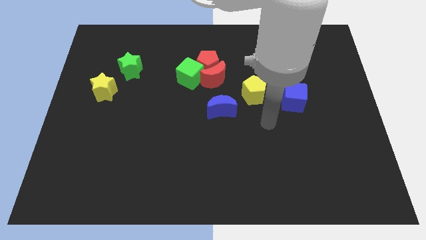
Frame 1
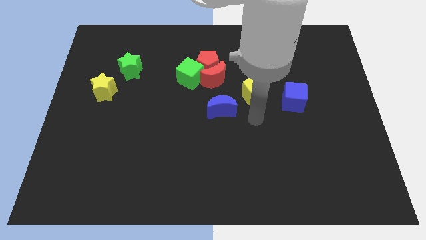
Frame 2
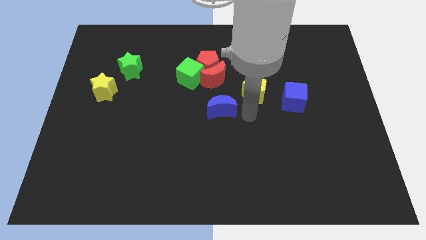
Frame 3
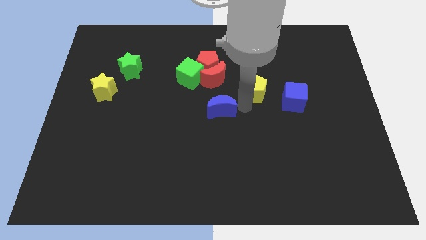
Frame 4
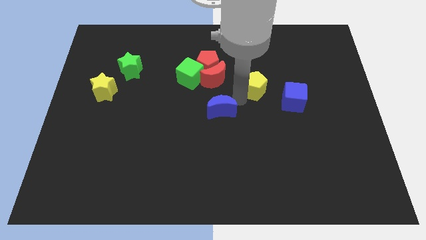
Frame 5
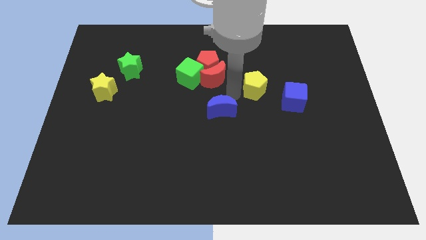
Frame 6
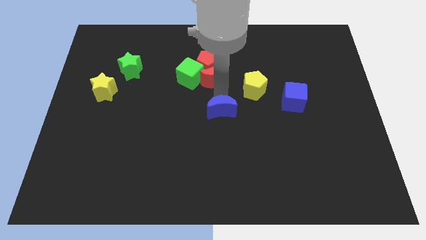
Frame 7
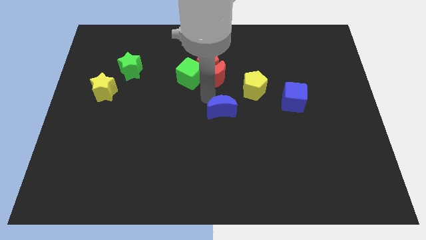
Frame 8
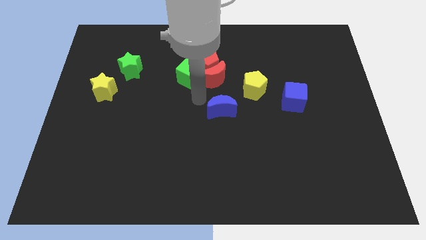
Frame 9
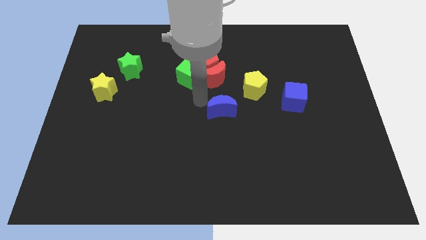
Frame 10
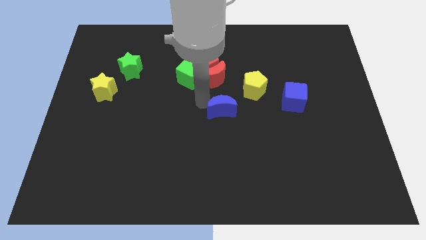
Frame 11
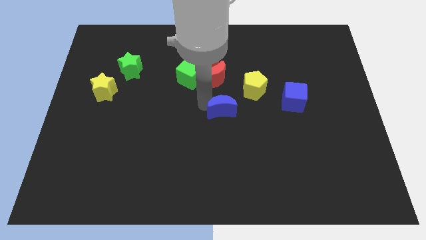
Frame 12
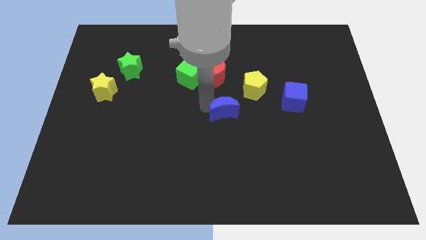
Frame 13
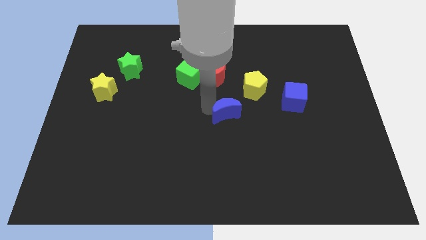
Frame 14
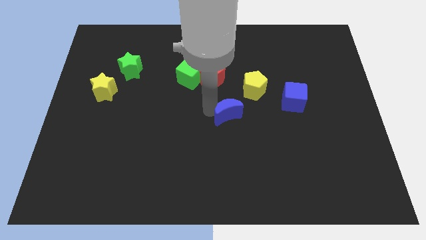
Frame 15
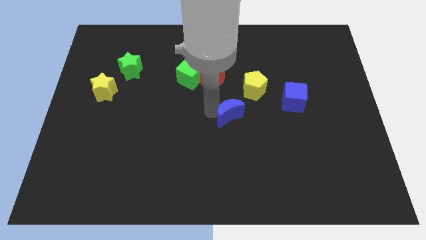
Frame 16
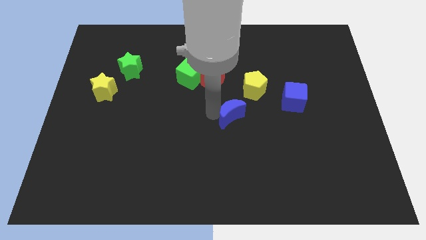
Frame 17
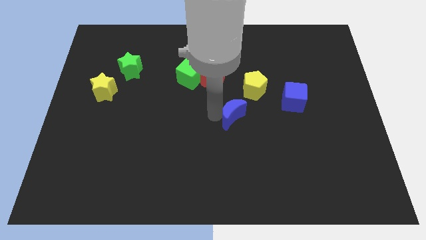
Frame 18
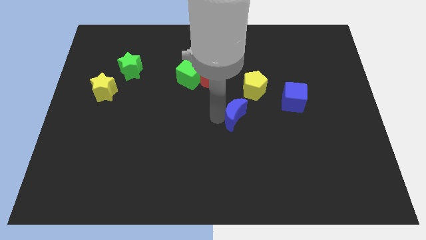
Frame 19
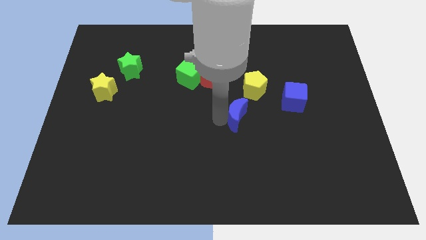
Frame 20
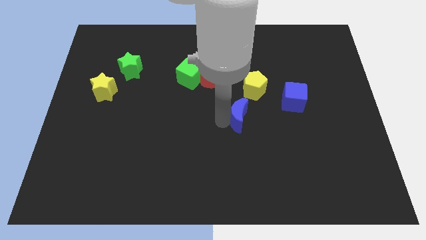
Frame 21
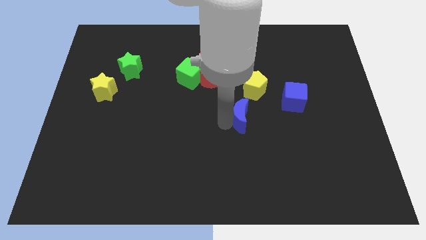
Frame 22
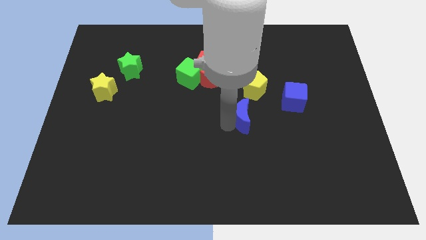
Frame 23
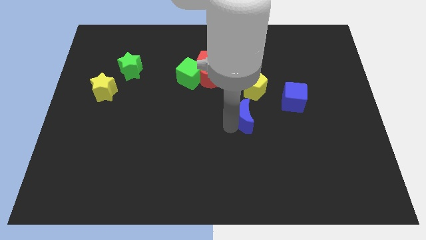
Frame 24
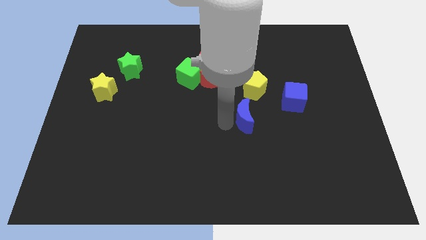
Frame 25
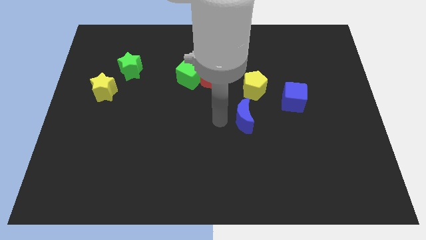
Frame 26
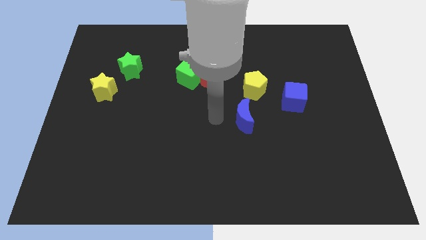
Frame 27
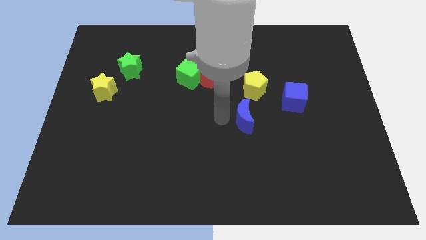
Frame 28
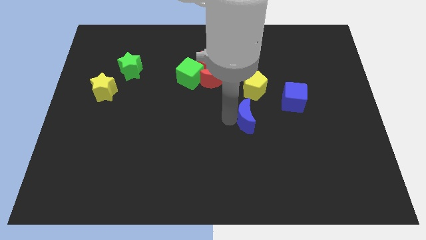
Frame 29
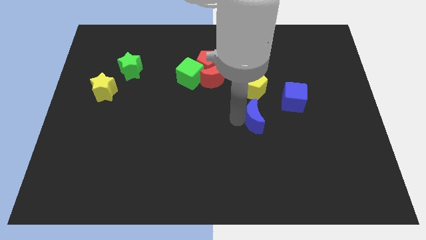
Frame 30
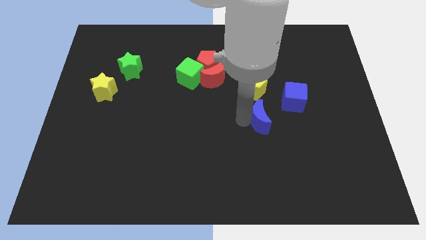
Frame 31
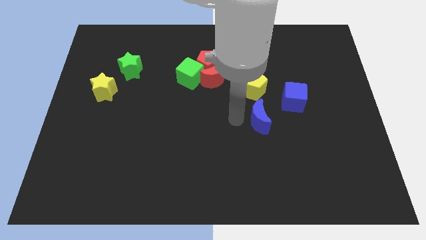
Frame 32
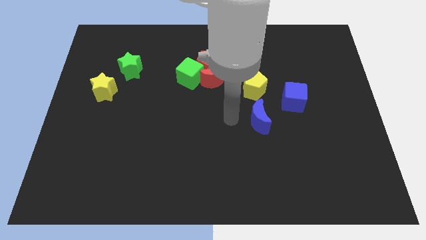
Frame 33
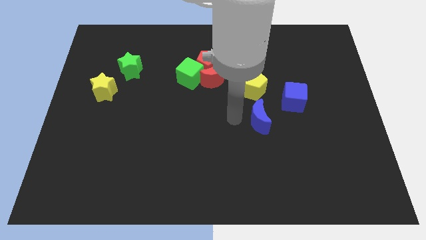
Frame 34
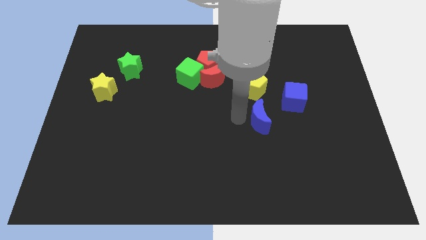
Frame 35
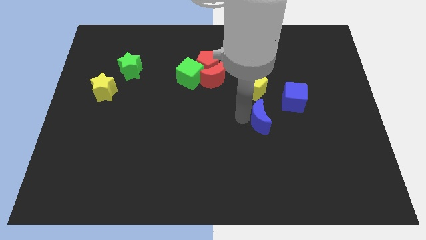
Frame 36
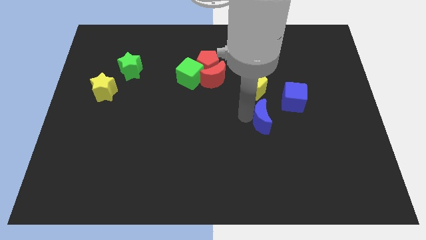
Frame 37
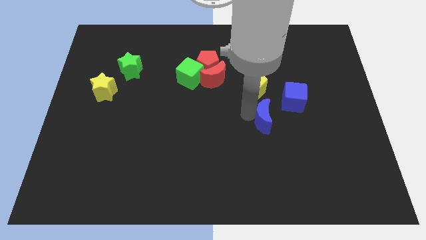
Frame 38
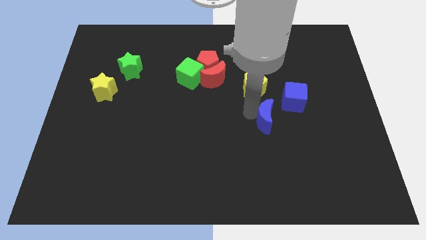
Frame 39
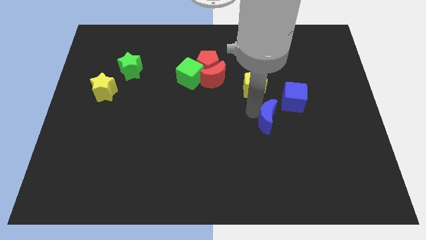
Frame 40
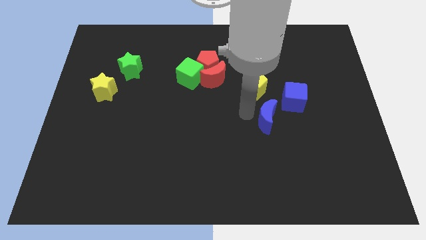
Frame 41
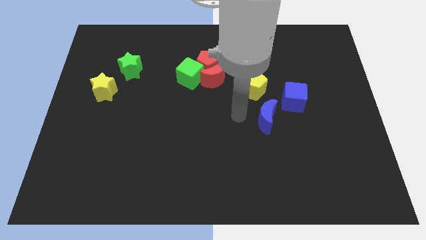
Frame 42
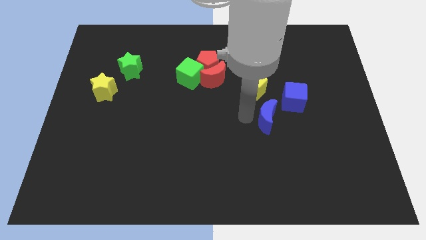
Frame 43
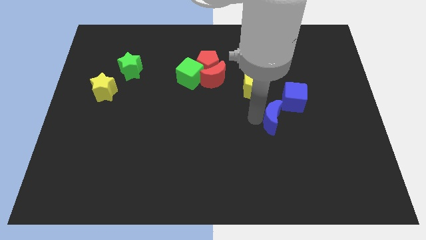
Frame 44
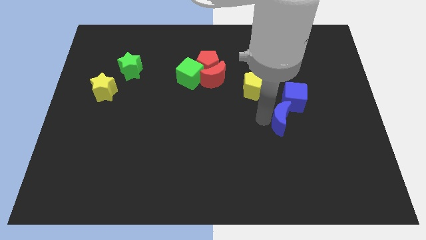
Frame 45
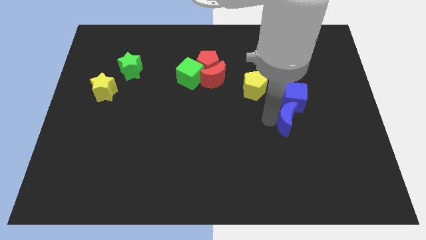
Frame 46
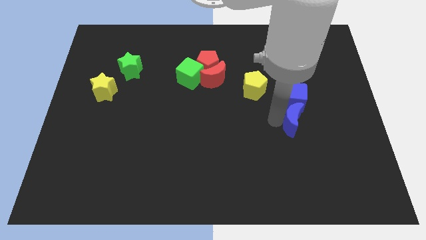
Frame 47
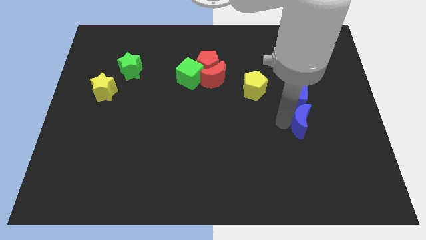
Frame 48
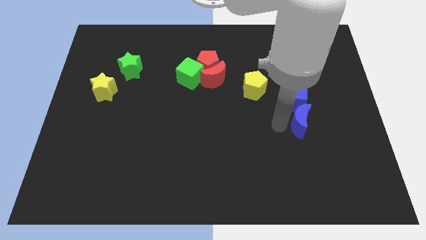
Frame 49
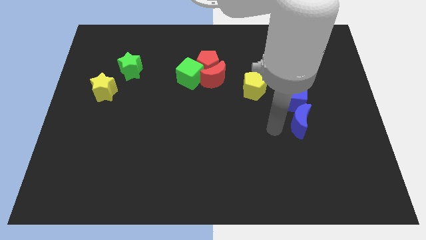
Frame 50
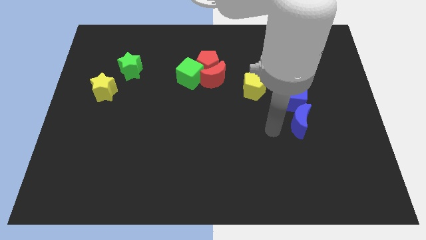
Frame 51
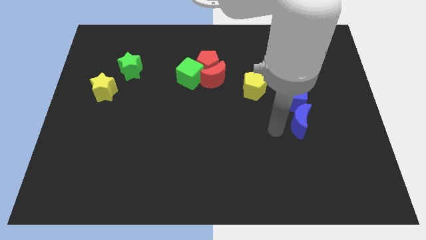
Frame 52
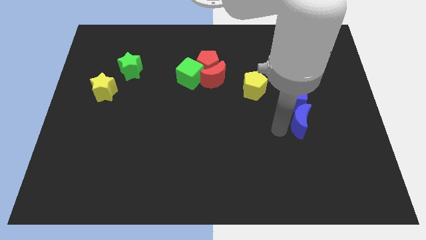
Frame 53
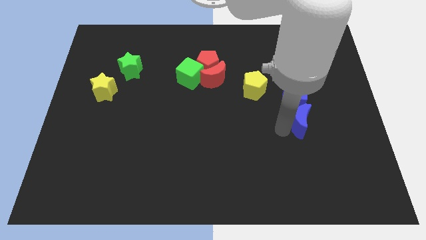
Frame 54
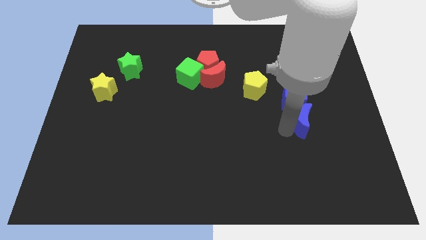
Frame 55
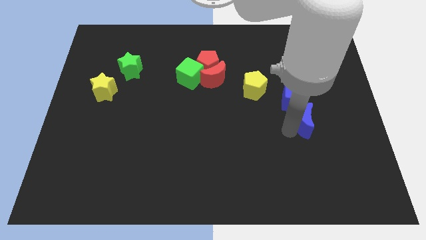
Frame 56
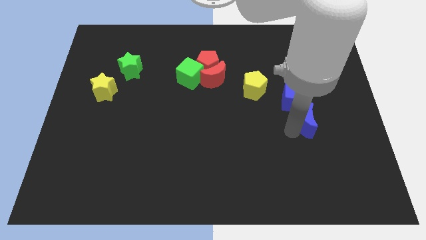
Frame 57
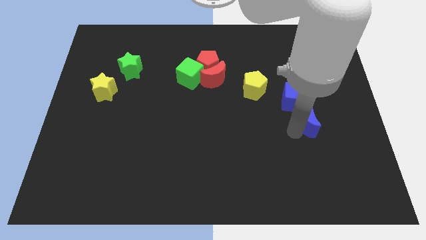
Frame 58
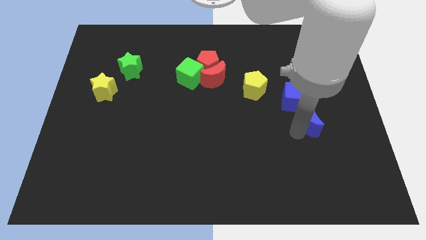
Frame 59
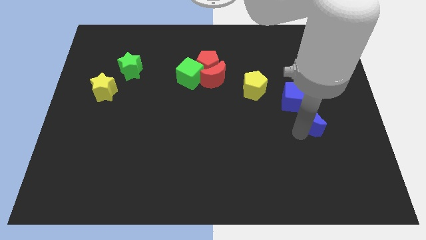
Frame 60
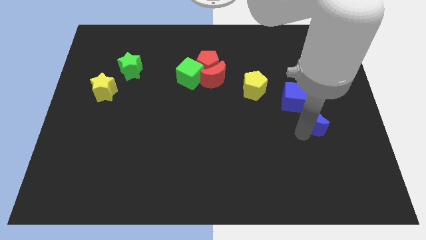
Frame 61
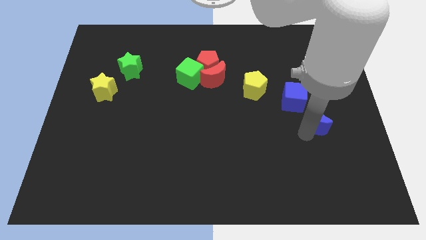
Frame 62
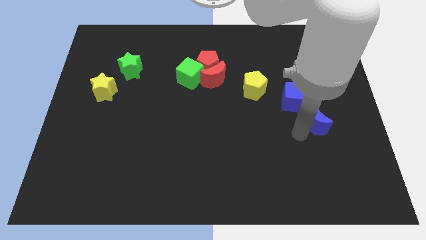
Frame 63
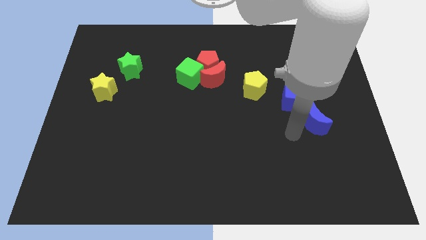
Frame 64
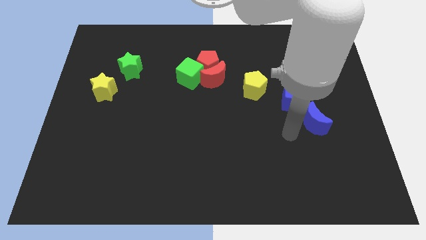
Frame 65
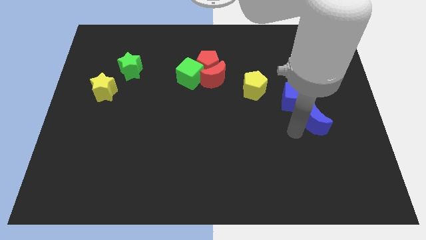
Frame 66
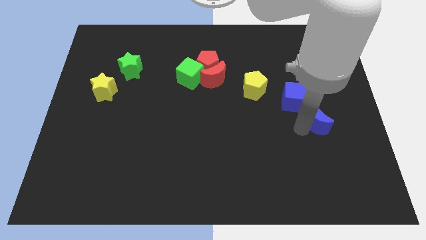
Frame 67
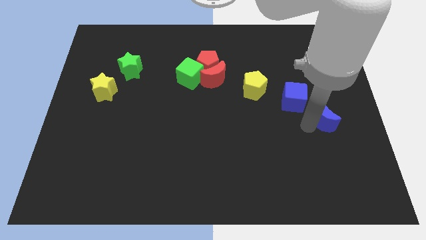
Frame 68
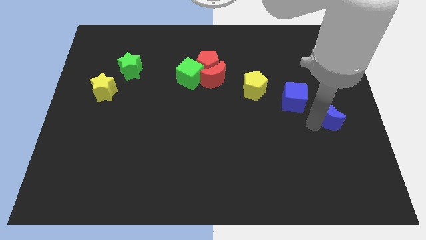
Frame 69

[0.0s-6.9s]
push the blue moon to the center right

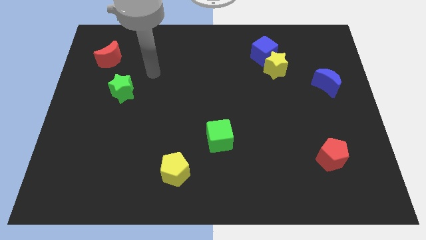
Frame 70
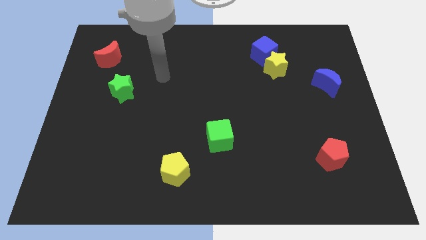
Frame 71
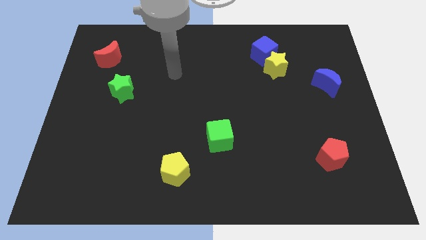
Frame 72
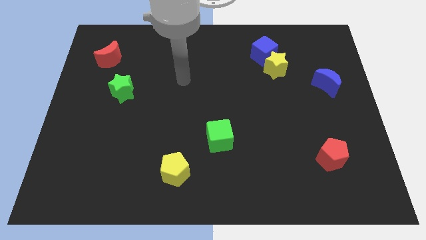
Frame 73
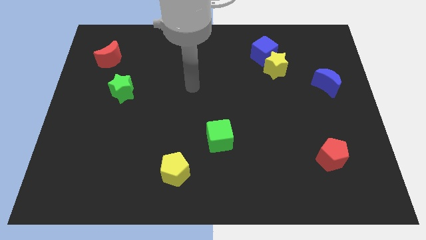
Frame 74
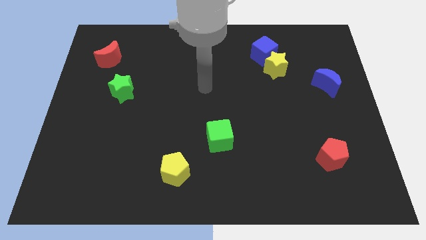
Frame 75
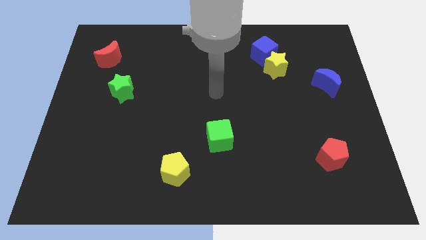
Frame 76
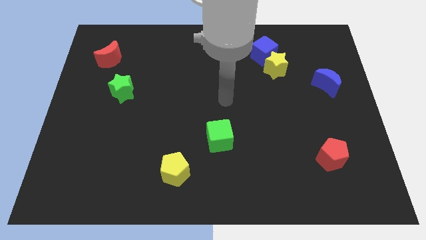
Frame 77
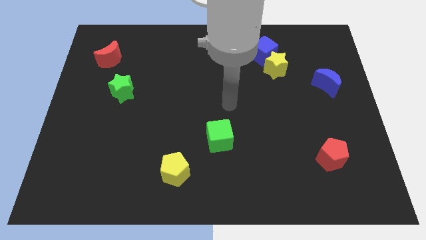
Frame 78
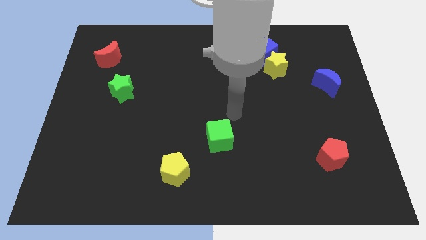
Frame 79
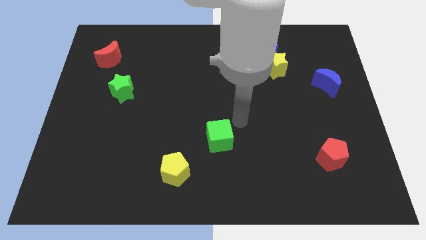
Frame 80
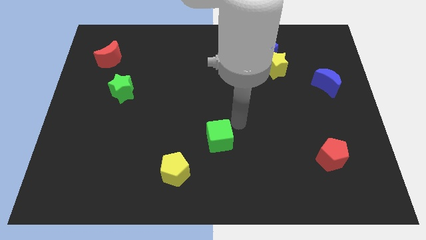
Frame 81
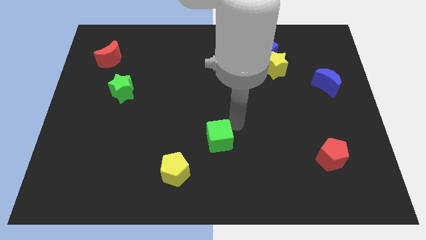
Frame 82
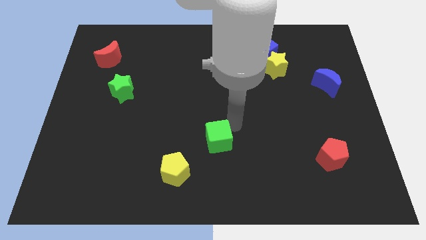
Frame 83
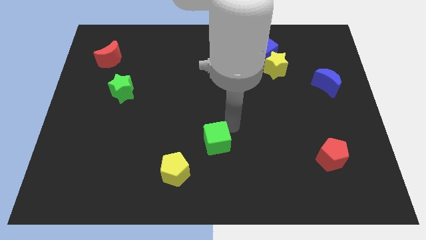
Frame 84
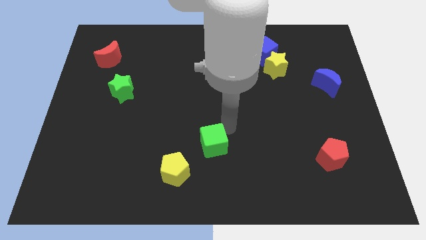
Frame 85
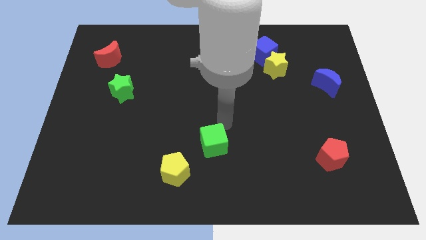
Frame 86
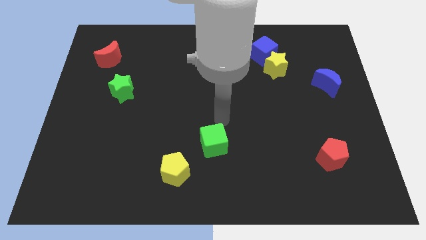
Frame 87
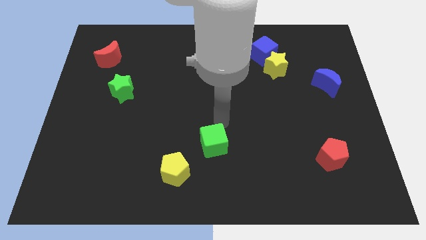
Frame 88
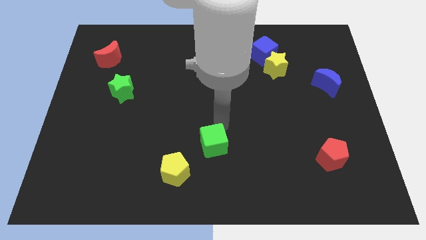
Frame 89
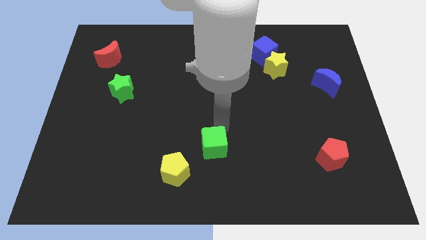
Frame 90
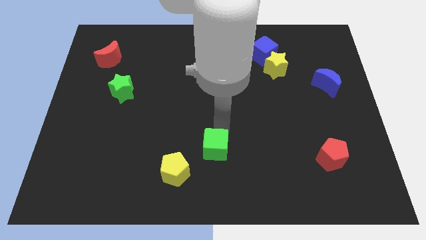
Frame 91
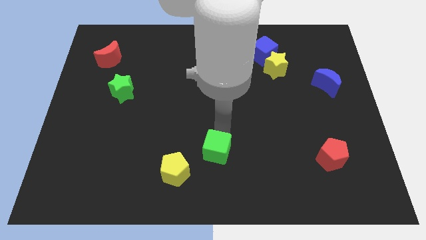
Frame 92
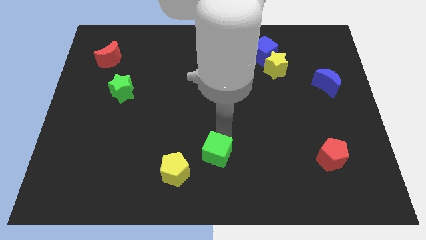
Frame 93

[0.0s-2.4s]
slide the green cube to the bottom
